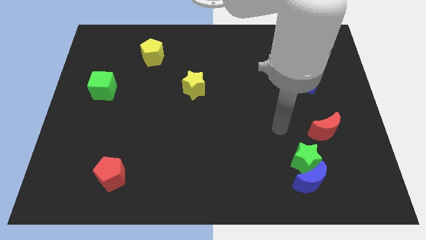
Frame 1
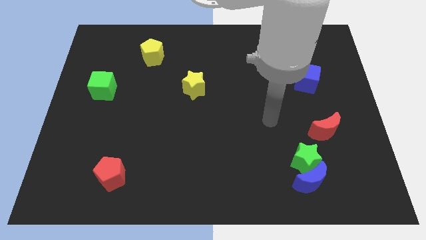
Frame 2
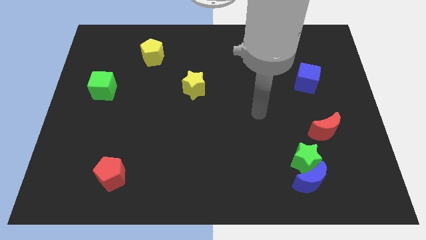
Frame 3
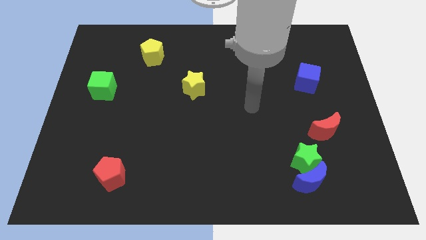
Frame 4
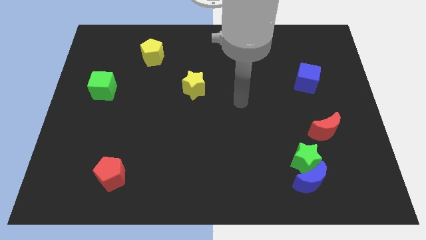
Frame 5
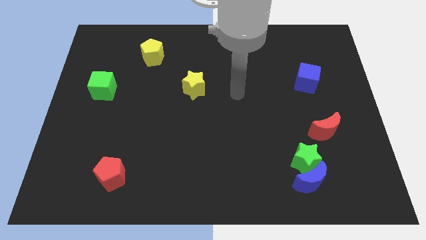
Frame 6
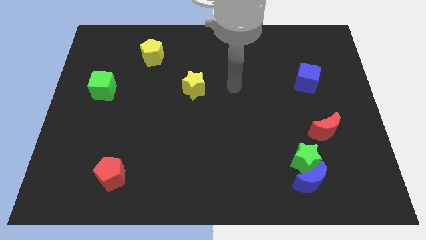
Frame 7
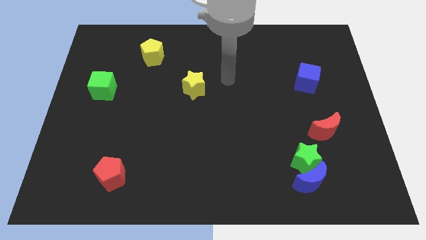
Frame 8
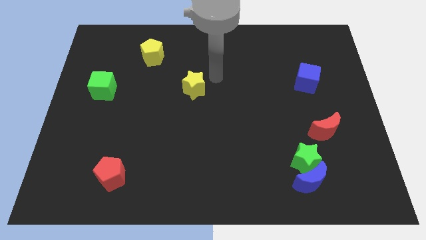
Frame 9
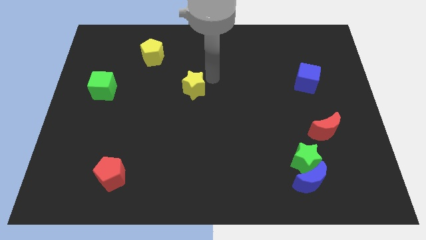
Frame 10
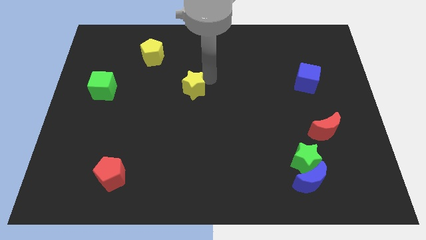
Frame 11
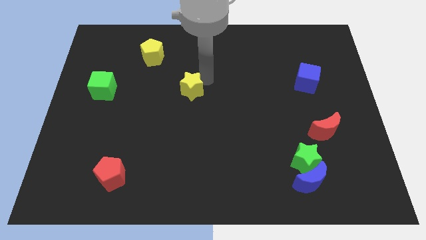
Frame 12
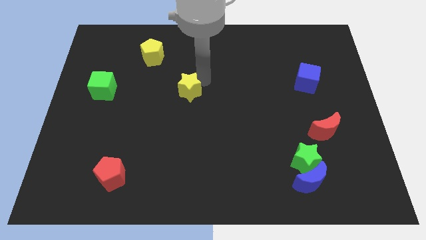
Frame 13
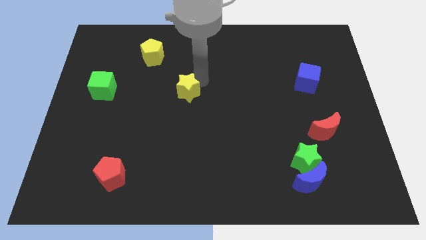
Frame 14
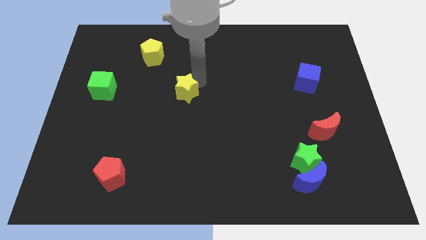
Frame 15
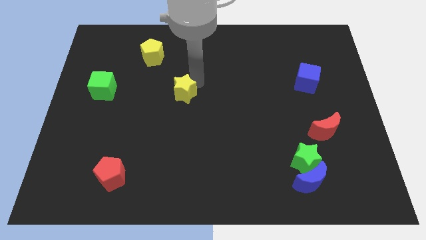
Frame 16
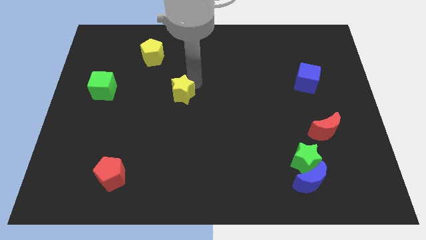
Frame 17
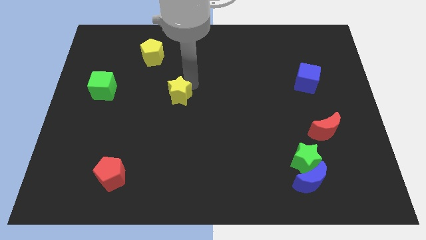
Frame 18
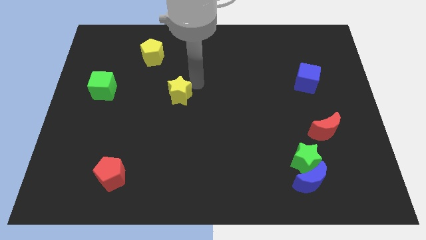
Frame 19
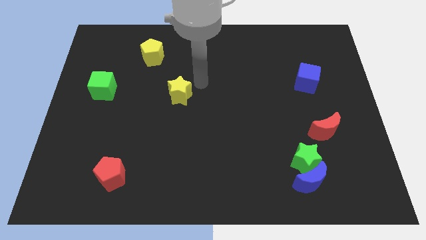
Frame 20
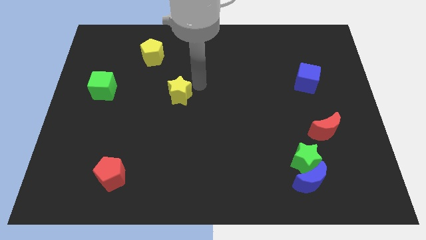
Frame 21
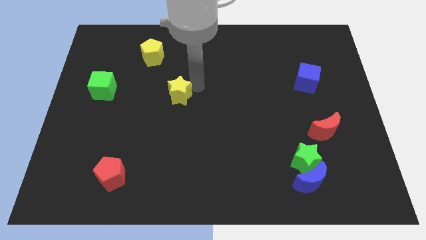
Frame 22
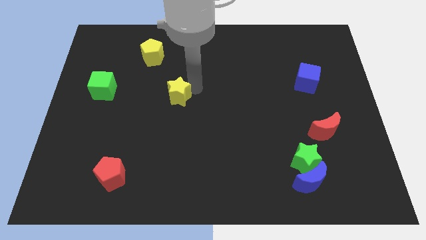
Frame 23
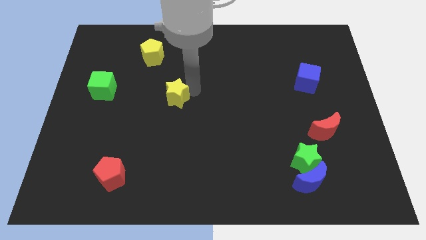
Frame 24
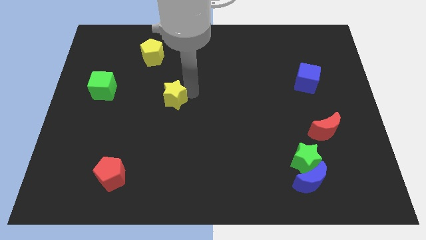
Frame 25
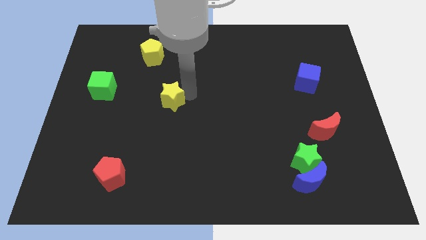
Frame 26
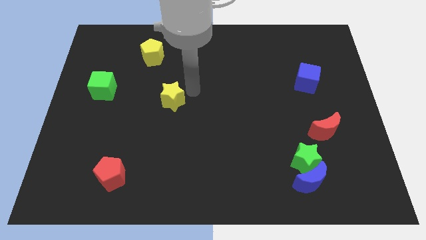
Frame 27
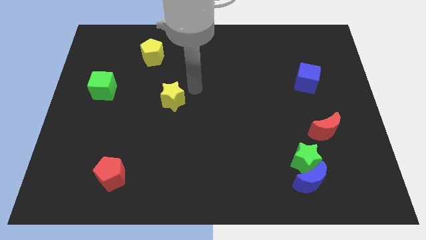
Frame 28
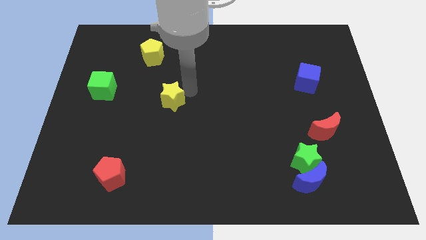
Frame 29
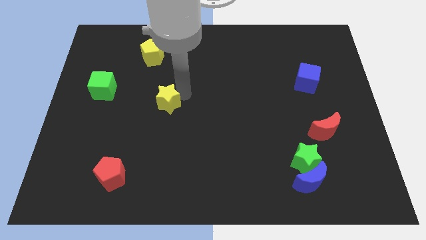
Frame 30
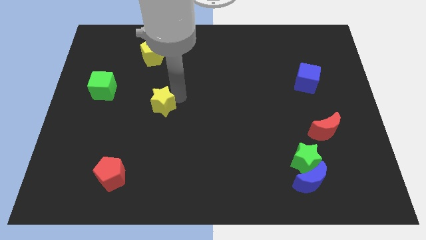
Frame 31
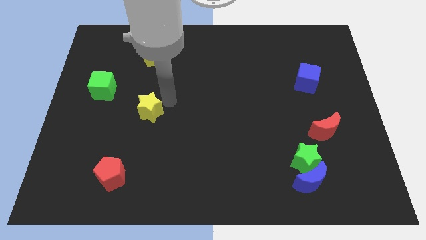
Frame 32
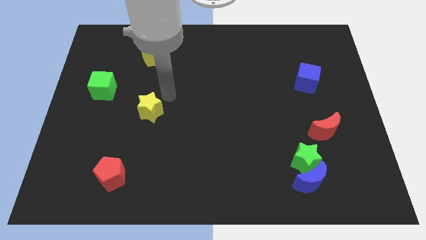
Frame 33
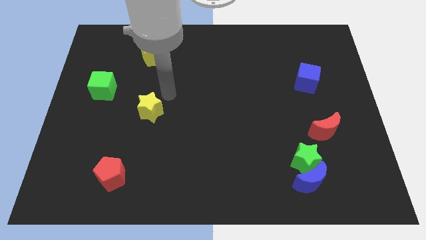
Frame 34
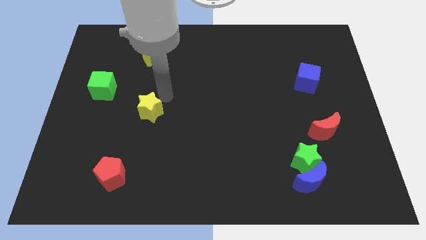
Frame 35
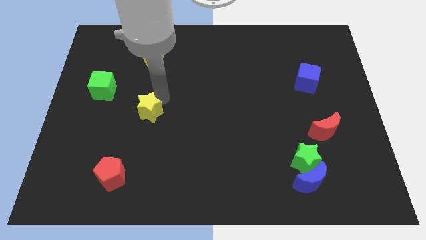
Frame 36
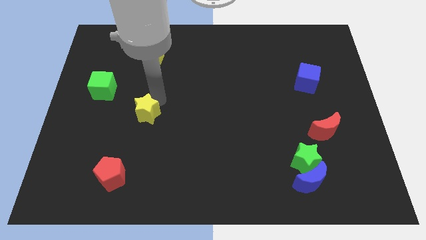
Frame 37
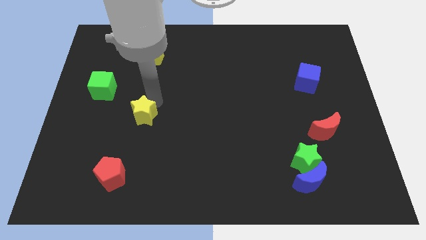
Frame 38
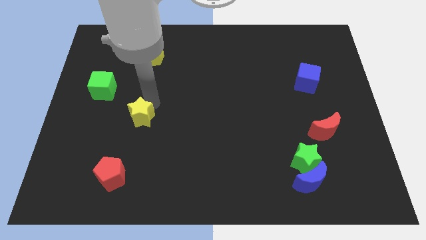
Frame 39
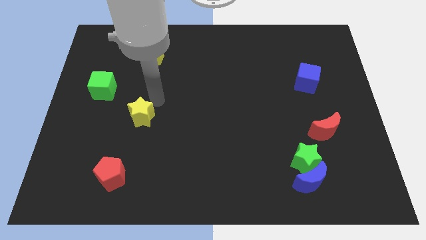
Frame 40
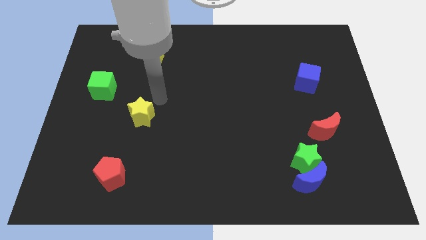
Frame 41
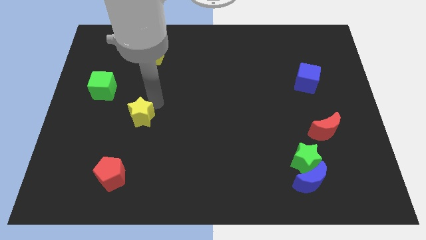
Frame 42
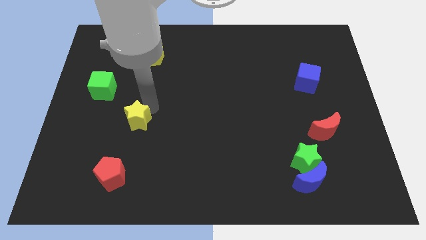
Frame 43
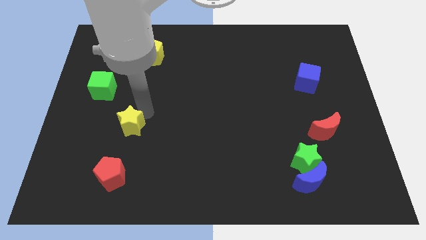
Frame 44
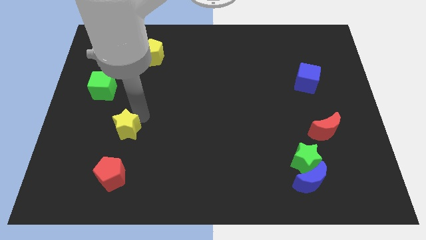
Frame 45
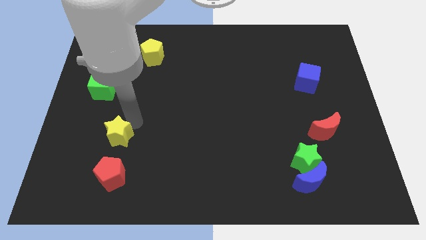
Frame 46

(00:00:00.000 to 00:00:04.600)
push the yellow star diagonally downwards and to the left

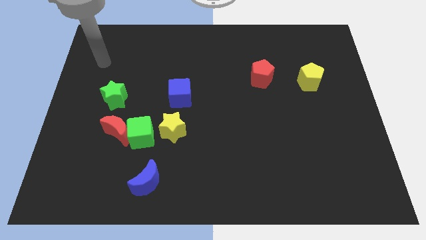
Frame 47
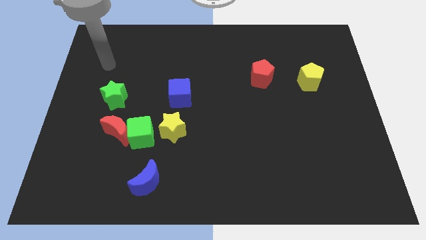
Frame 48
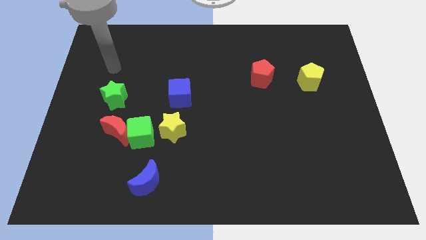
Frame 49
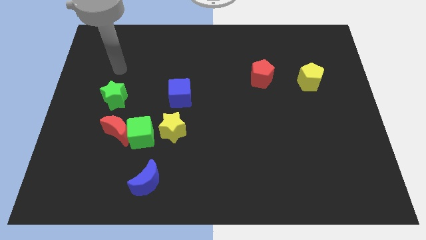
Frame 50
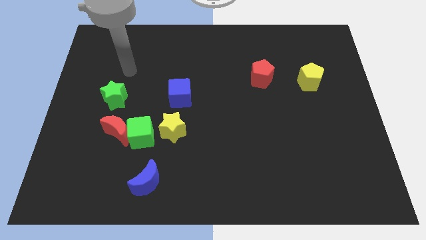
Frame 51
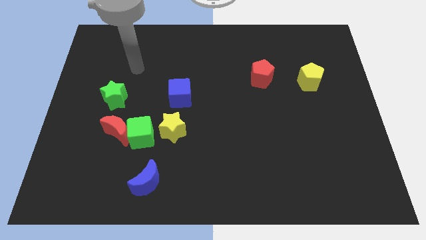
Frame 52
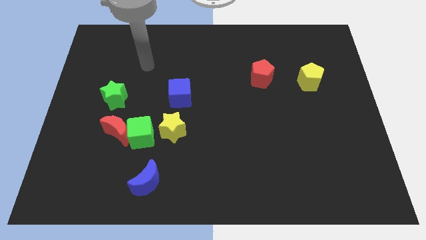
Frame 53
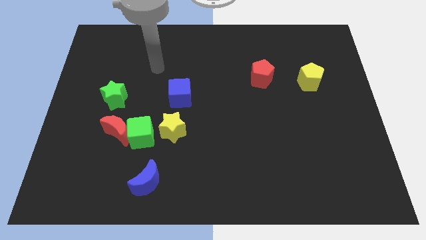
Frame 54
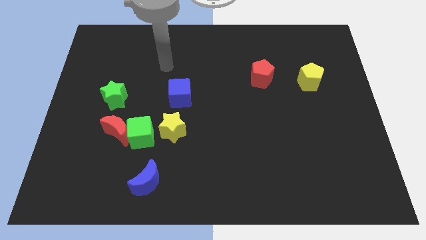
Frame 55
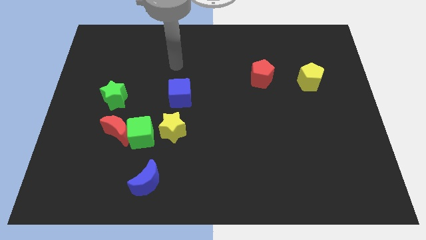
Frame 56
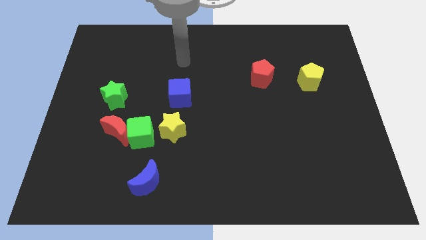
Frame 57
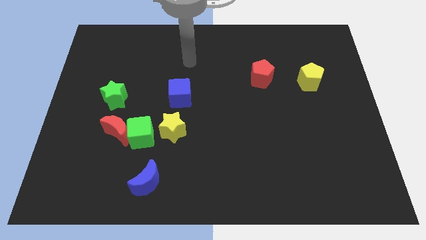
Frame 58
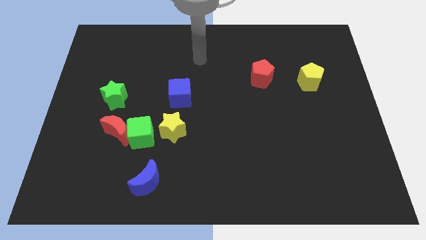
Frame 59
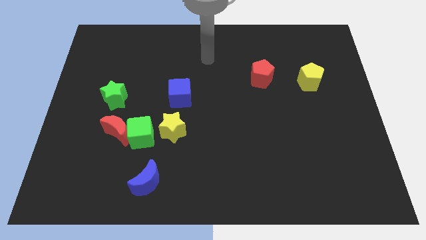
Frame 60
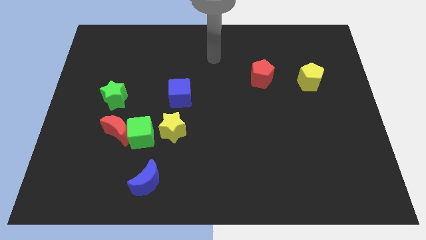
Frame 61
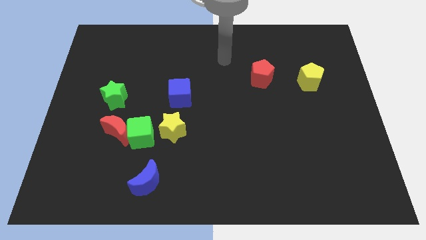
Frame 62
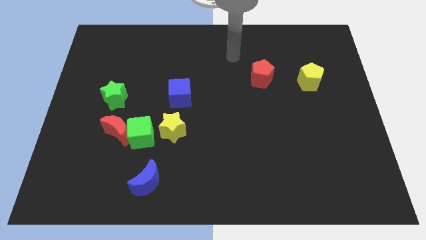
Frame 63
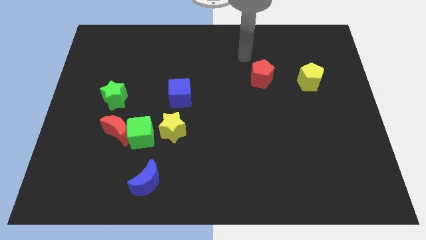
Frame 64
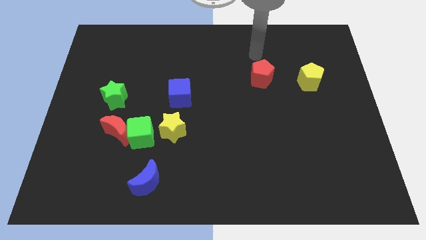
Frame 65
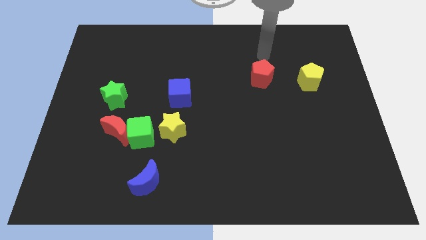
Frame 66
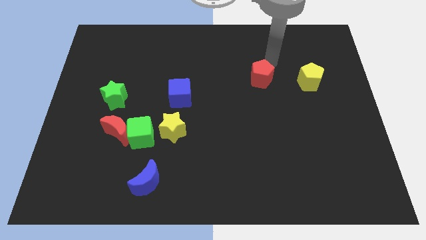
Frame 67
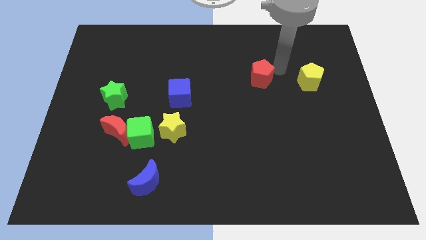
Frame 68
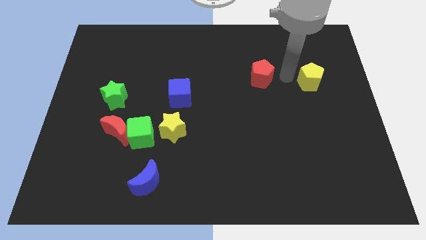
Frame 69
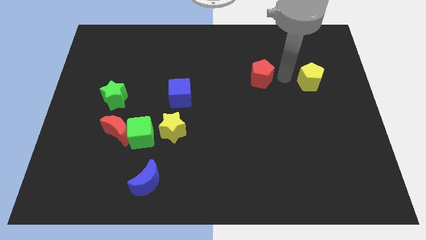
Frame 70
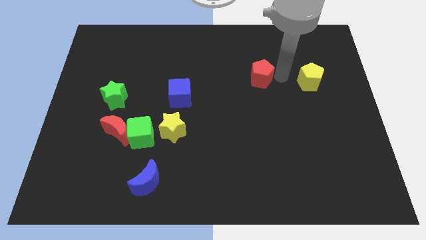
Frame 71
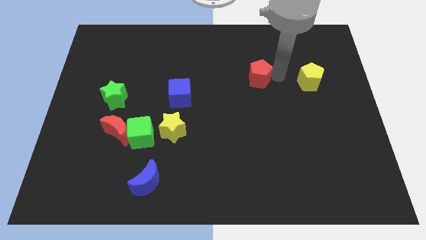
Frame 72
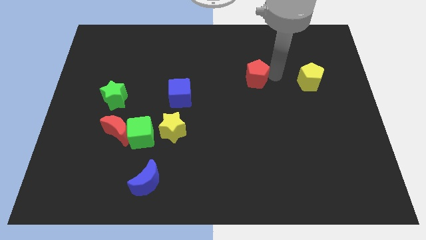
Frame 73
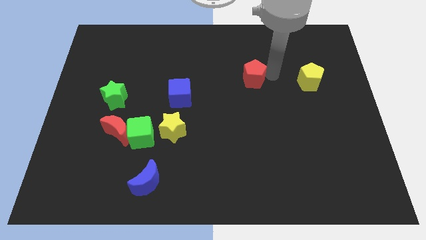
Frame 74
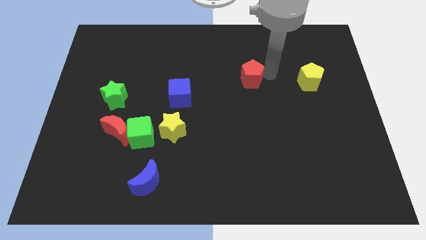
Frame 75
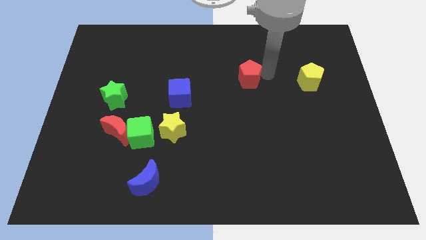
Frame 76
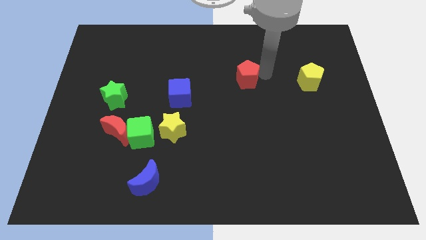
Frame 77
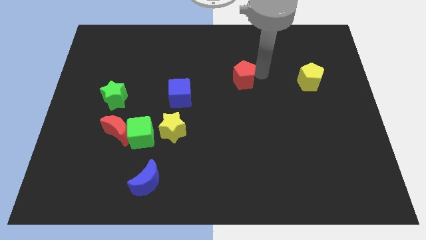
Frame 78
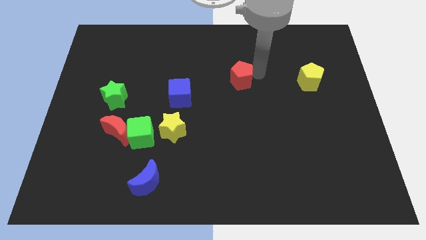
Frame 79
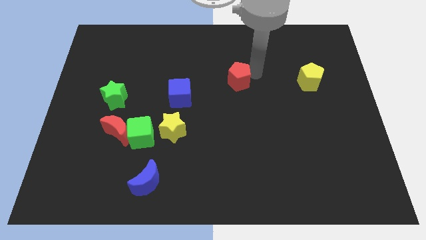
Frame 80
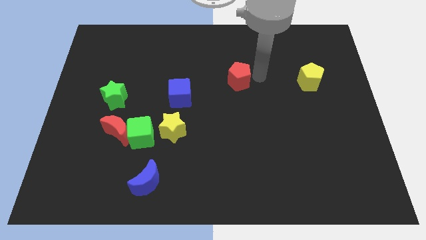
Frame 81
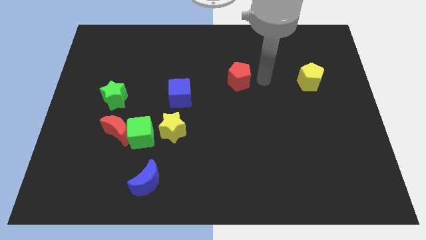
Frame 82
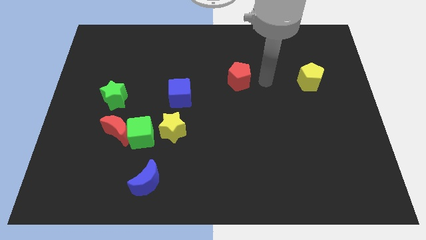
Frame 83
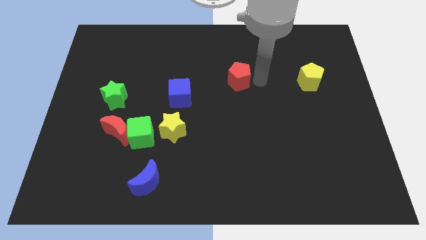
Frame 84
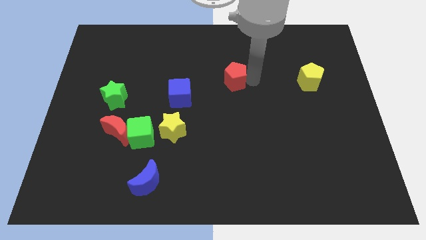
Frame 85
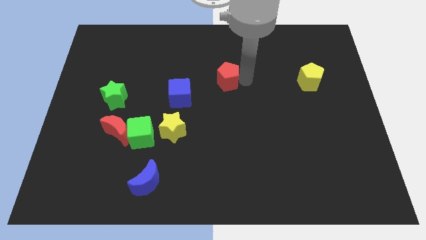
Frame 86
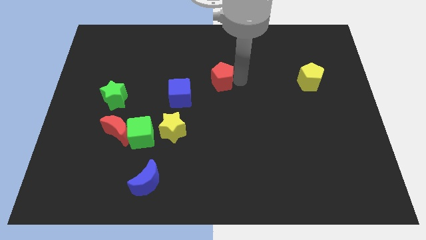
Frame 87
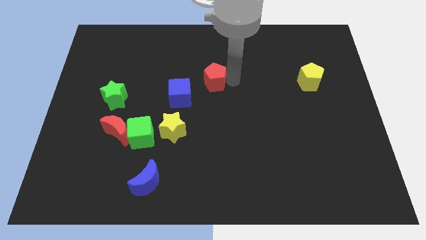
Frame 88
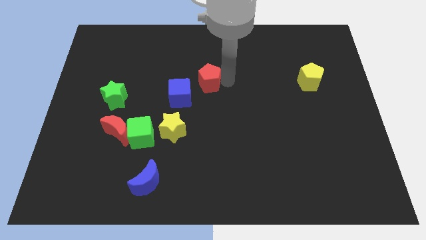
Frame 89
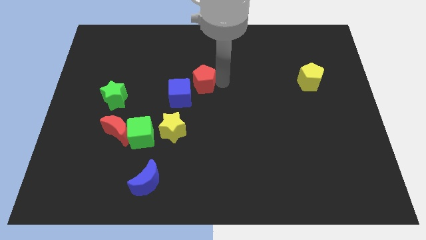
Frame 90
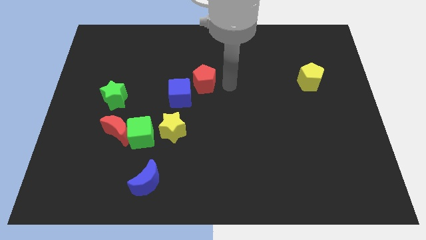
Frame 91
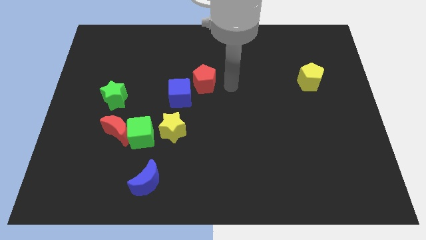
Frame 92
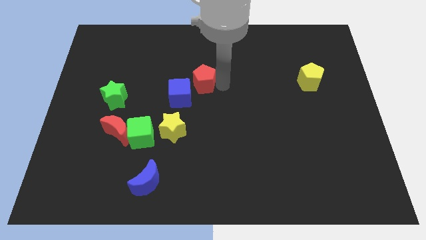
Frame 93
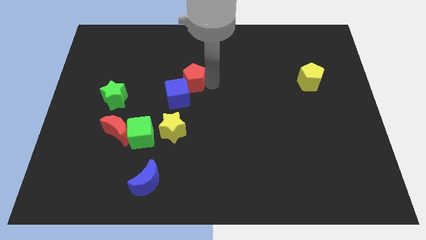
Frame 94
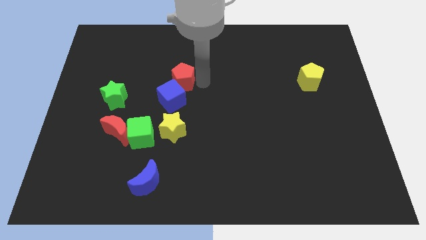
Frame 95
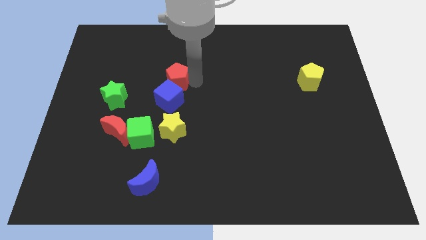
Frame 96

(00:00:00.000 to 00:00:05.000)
move the red pentagon left
